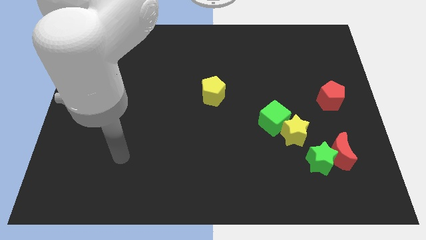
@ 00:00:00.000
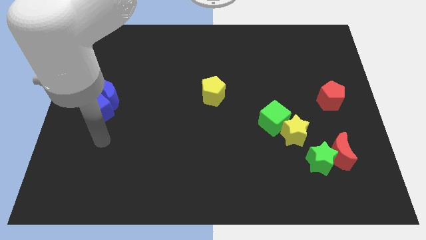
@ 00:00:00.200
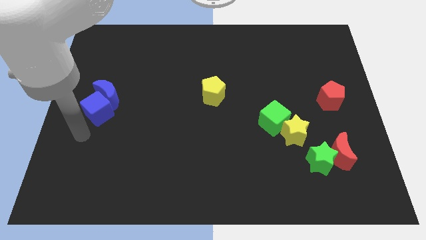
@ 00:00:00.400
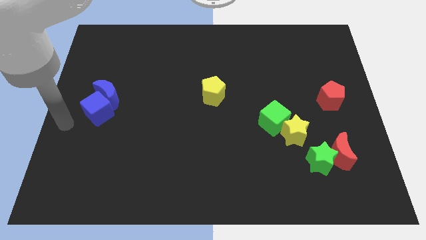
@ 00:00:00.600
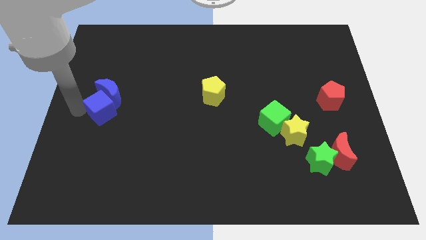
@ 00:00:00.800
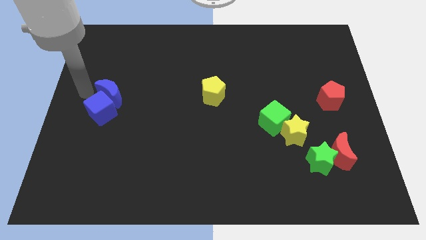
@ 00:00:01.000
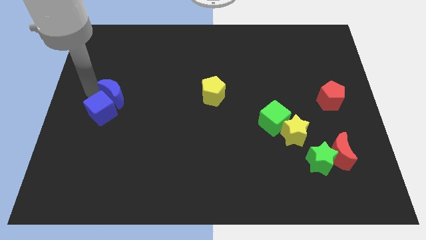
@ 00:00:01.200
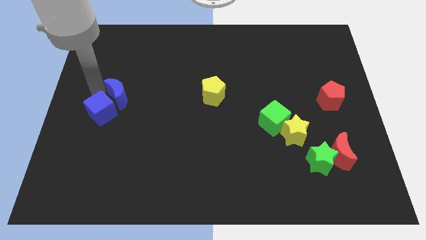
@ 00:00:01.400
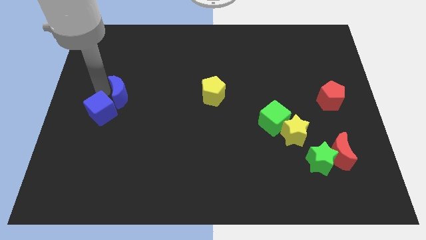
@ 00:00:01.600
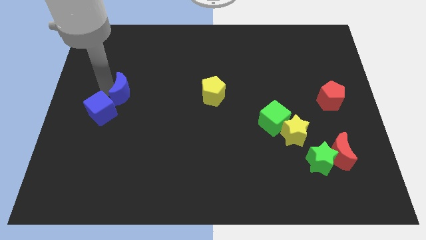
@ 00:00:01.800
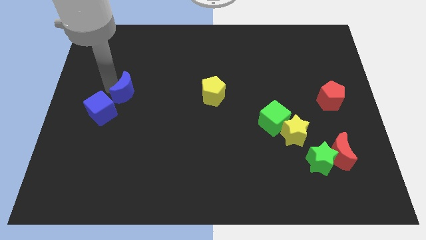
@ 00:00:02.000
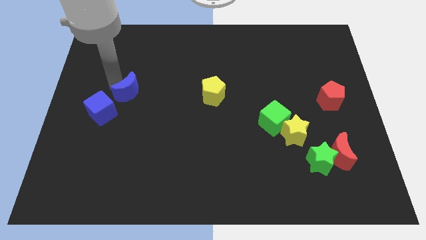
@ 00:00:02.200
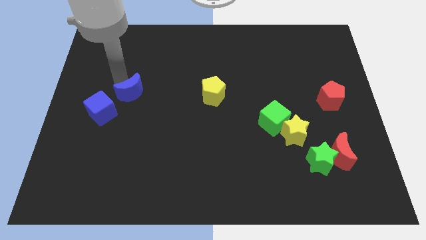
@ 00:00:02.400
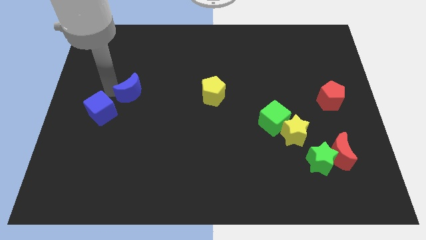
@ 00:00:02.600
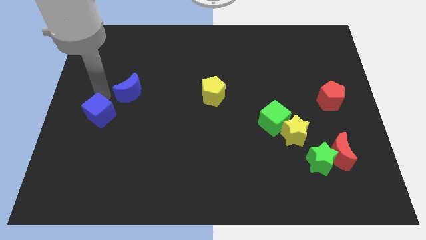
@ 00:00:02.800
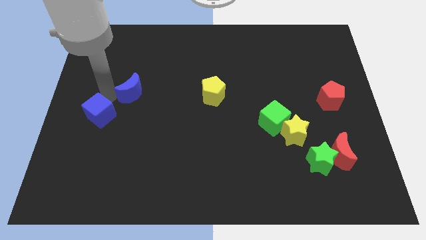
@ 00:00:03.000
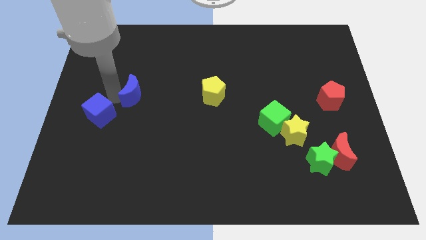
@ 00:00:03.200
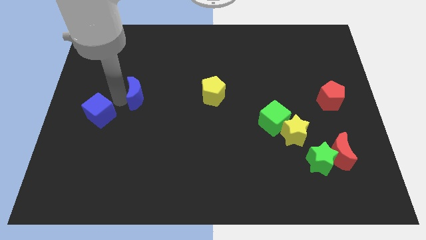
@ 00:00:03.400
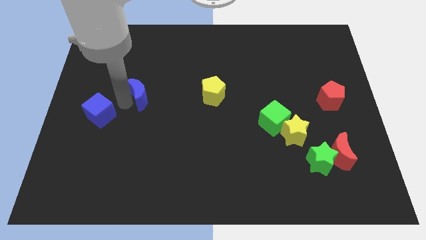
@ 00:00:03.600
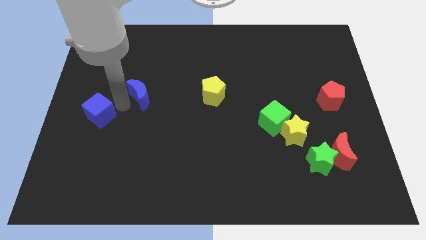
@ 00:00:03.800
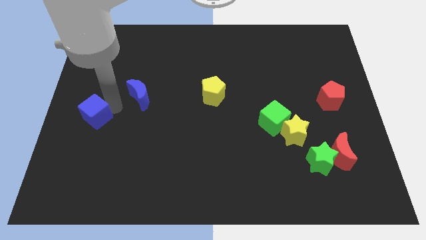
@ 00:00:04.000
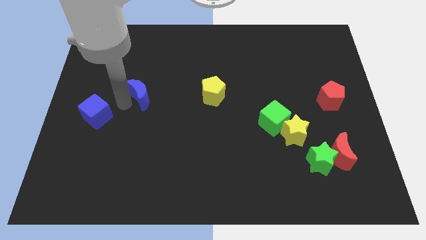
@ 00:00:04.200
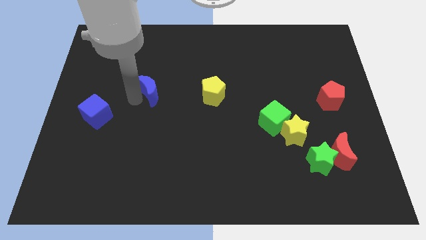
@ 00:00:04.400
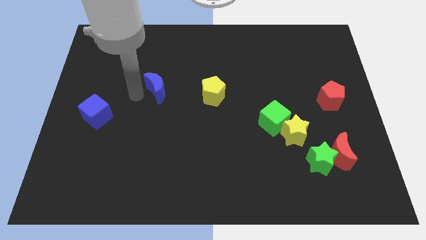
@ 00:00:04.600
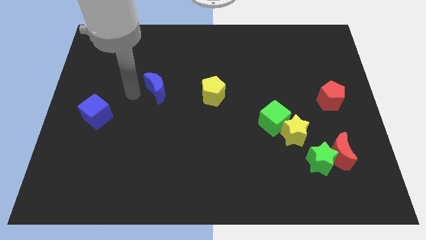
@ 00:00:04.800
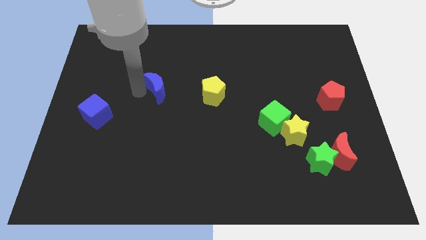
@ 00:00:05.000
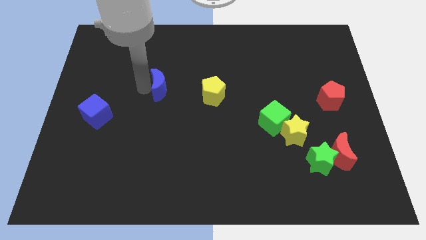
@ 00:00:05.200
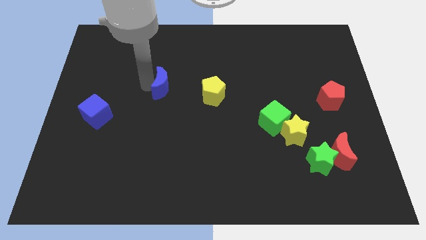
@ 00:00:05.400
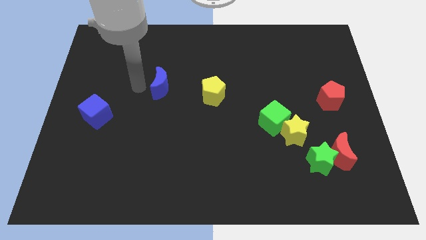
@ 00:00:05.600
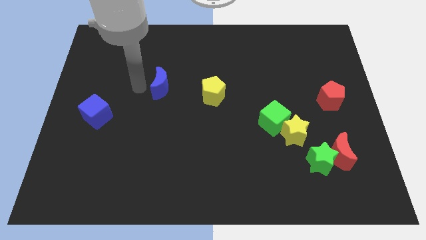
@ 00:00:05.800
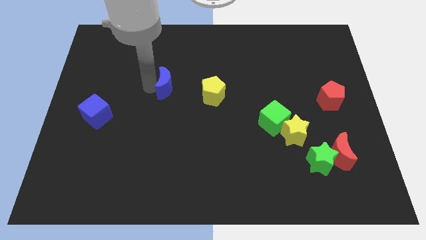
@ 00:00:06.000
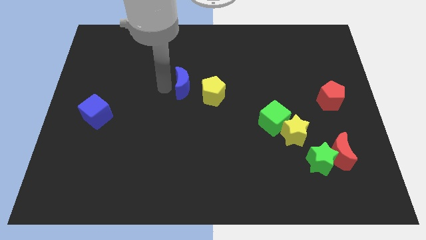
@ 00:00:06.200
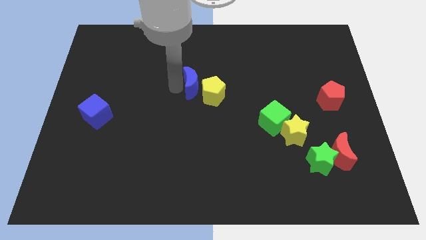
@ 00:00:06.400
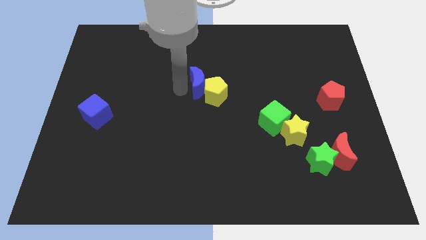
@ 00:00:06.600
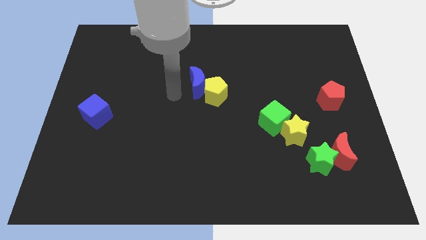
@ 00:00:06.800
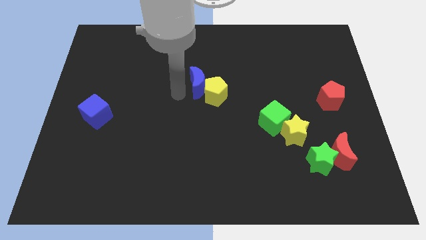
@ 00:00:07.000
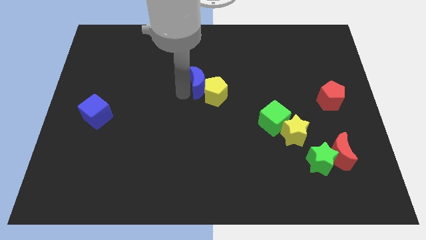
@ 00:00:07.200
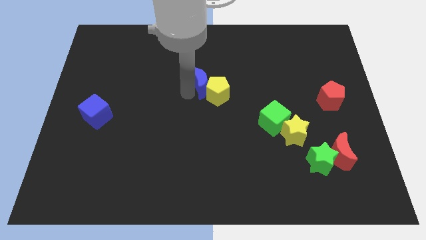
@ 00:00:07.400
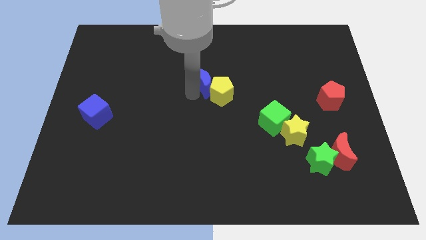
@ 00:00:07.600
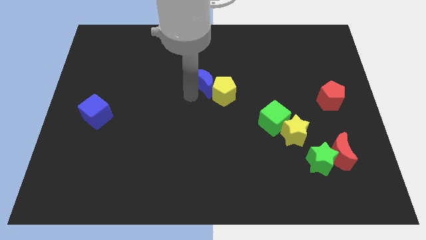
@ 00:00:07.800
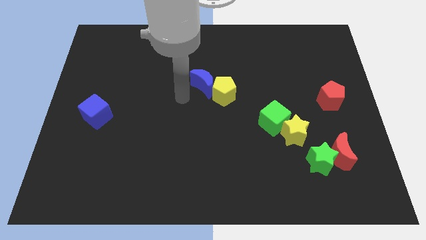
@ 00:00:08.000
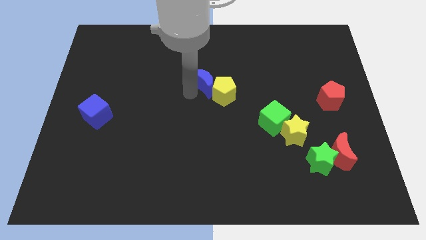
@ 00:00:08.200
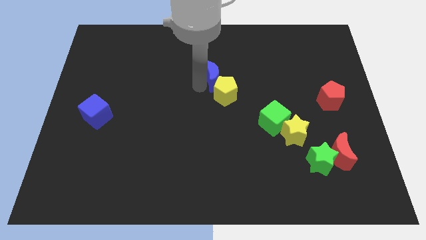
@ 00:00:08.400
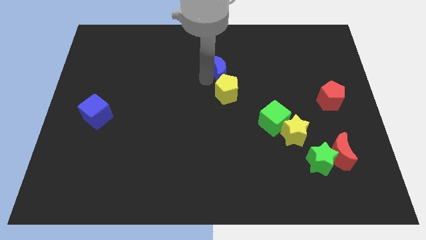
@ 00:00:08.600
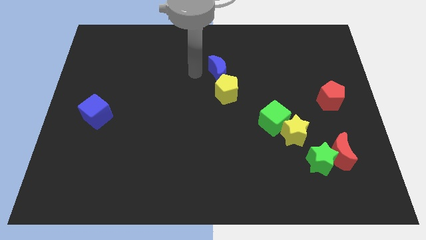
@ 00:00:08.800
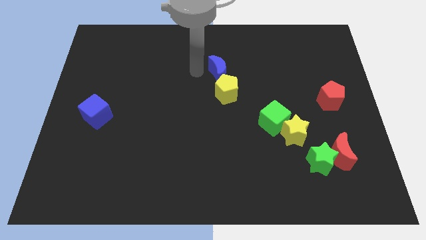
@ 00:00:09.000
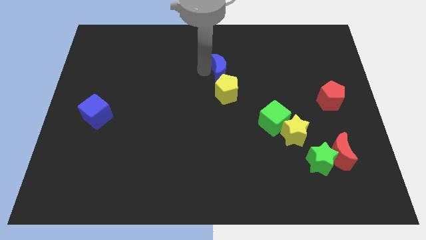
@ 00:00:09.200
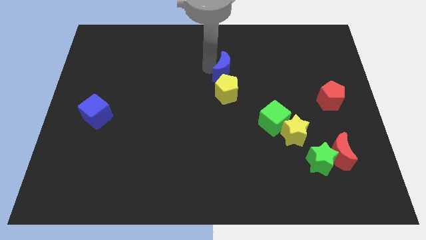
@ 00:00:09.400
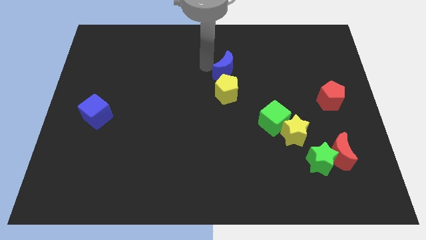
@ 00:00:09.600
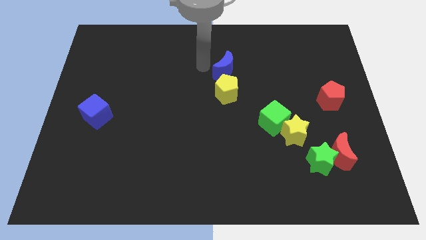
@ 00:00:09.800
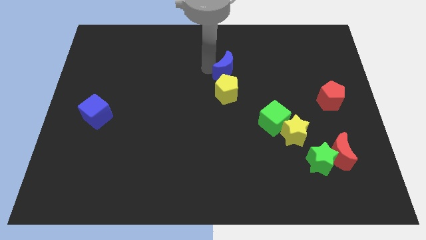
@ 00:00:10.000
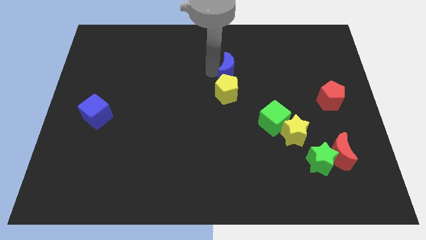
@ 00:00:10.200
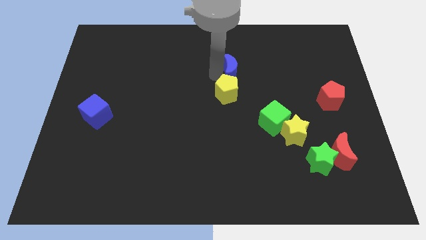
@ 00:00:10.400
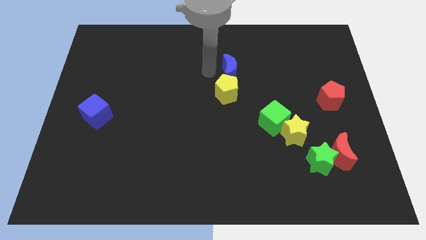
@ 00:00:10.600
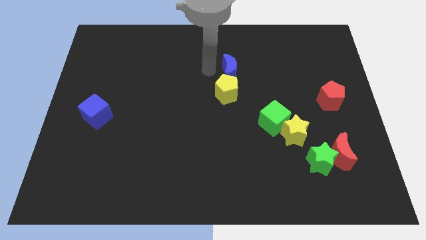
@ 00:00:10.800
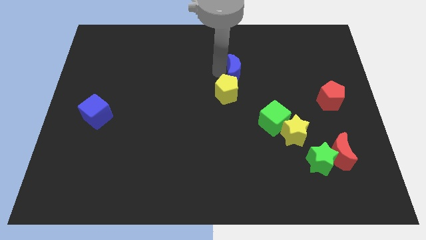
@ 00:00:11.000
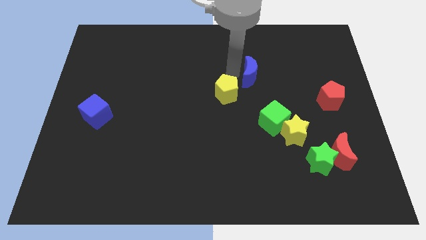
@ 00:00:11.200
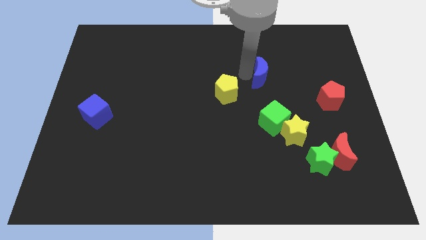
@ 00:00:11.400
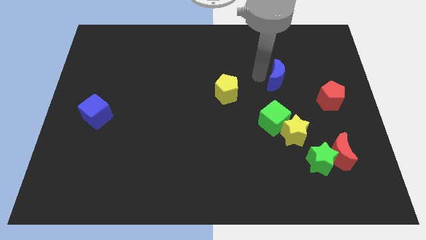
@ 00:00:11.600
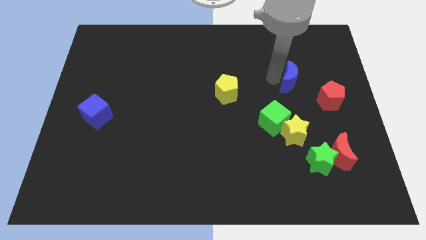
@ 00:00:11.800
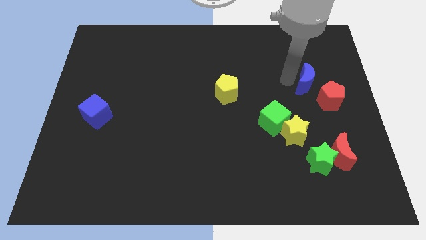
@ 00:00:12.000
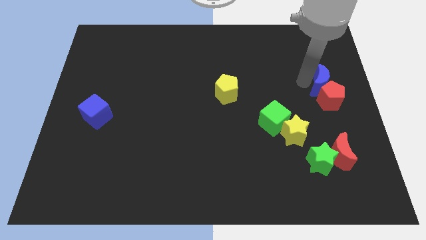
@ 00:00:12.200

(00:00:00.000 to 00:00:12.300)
slide the blue moon to the right side of the board
